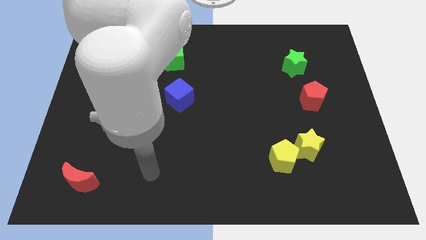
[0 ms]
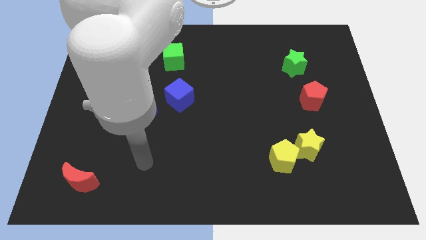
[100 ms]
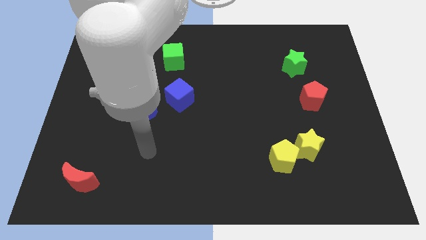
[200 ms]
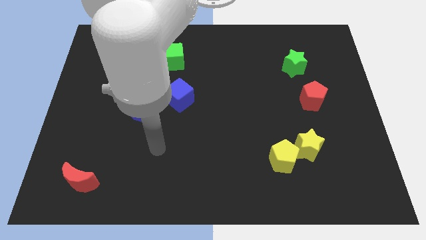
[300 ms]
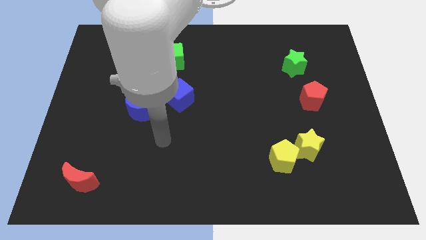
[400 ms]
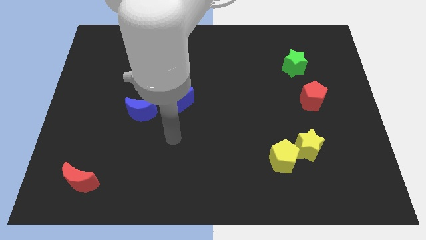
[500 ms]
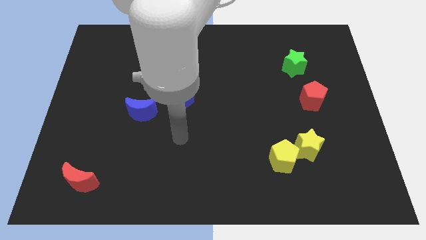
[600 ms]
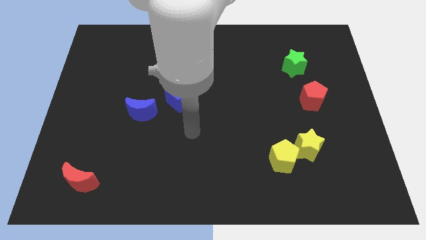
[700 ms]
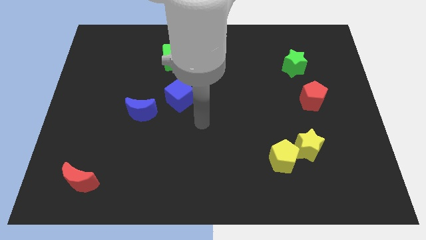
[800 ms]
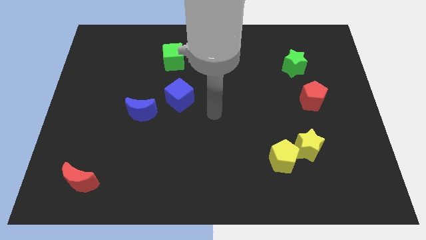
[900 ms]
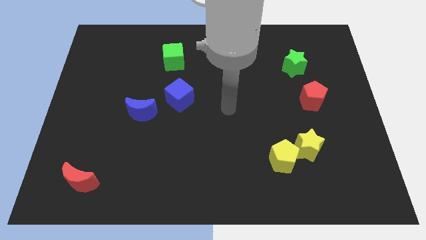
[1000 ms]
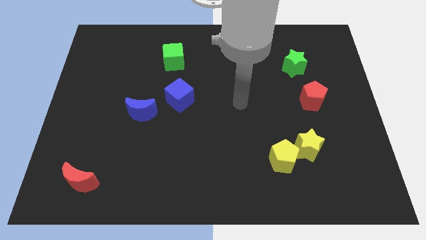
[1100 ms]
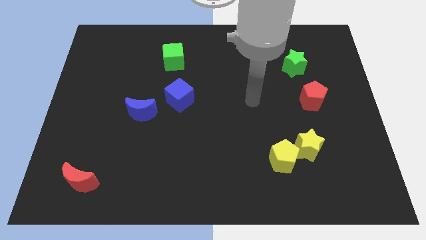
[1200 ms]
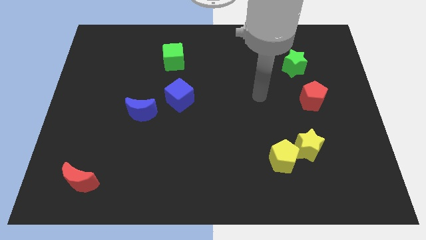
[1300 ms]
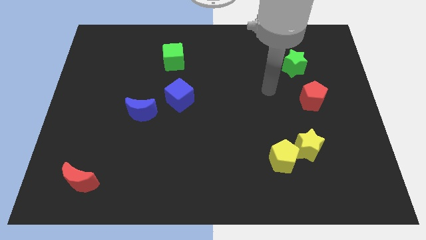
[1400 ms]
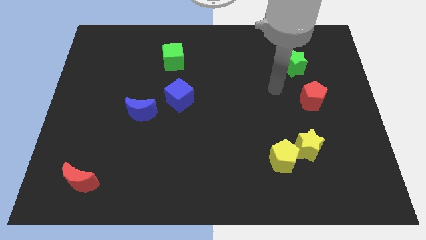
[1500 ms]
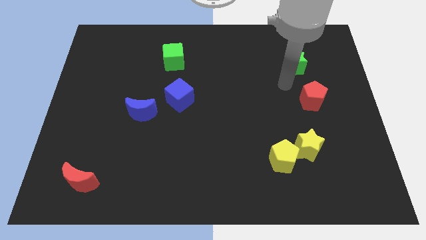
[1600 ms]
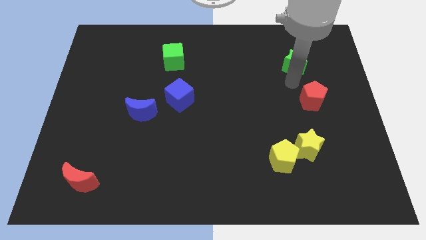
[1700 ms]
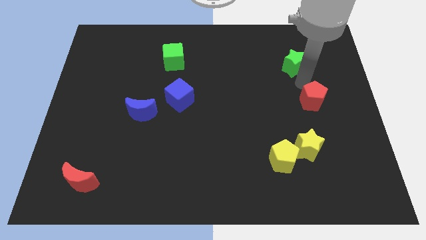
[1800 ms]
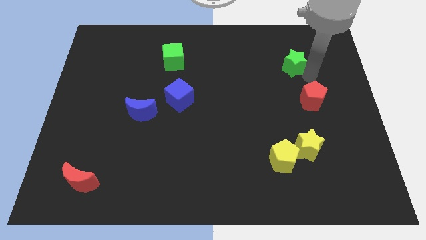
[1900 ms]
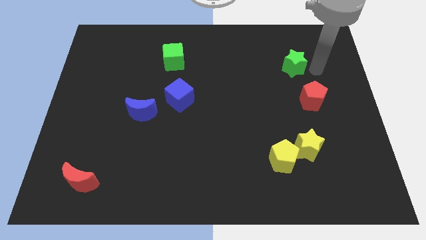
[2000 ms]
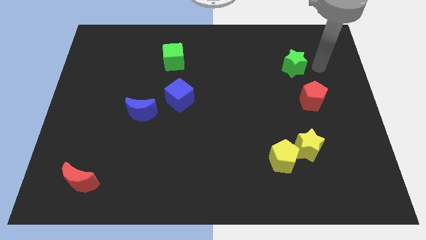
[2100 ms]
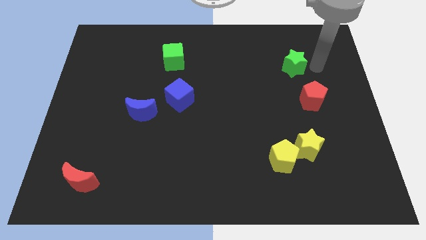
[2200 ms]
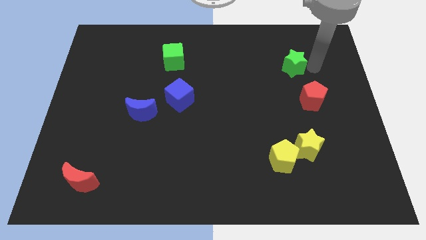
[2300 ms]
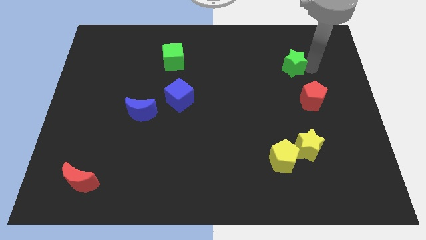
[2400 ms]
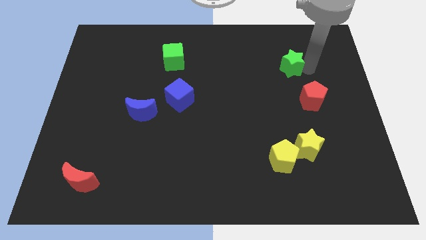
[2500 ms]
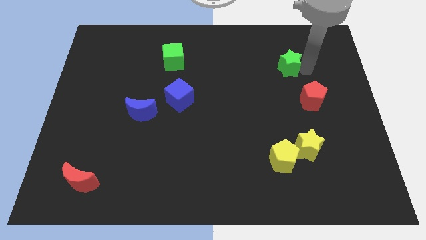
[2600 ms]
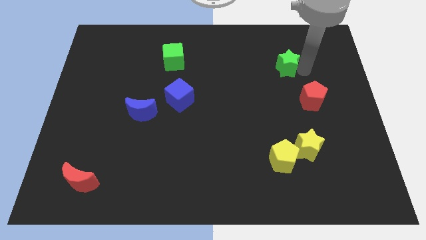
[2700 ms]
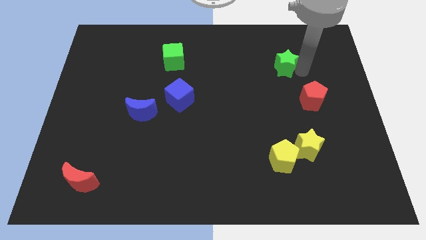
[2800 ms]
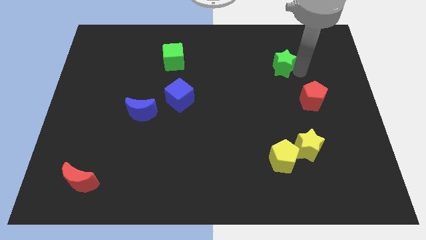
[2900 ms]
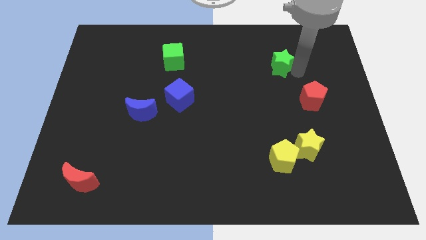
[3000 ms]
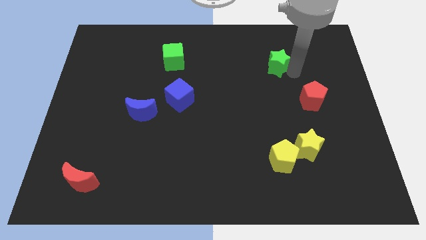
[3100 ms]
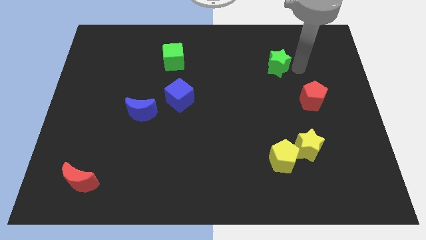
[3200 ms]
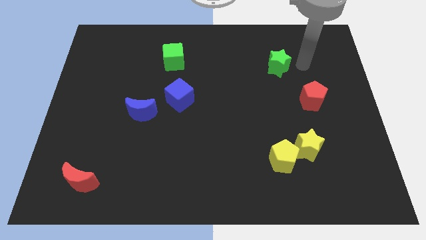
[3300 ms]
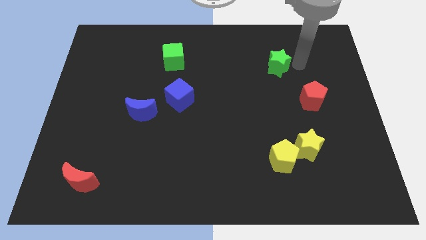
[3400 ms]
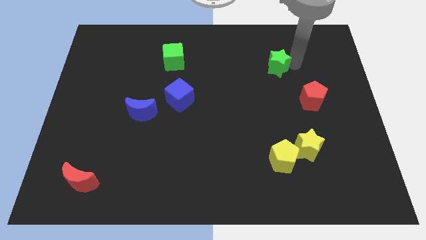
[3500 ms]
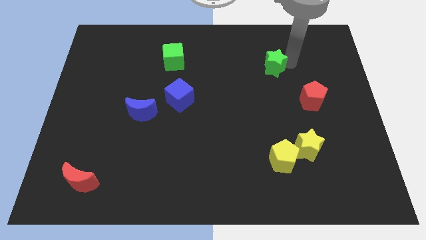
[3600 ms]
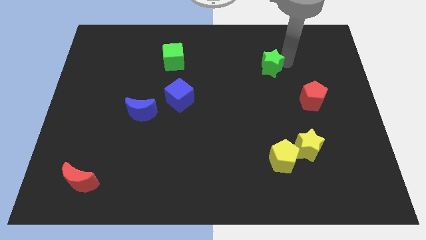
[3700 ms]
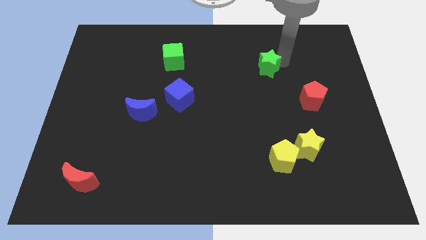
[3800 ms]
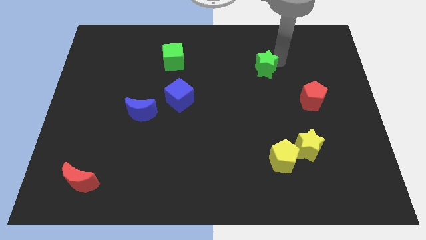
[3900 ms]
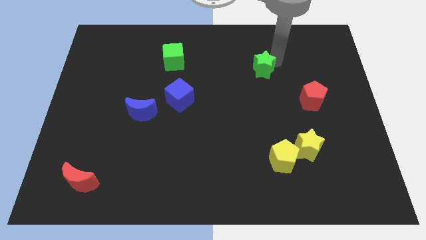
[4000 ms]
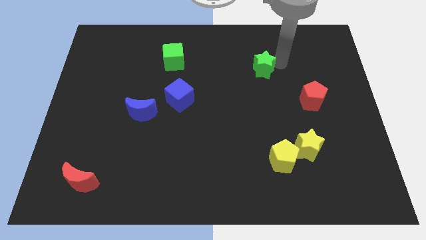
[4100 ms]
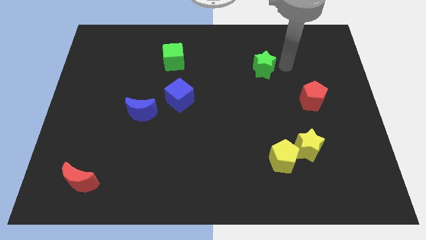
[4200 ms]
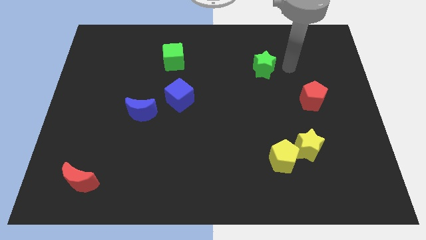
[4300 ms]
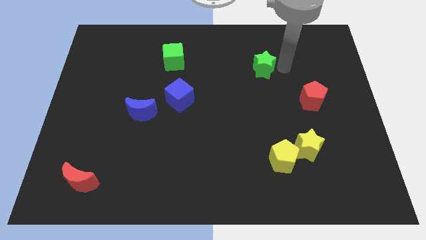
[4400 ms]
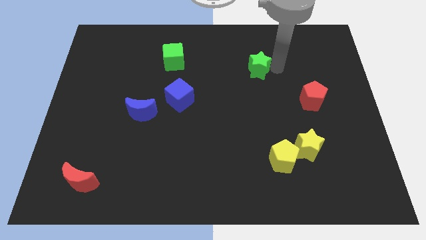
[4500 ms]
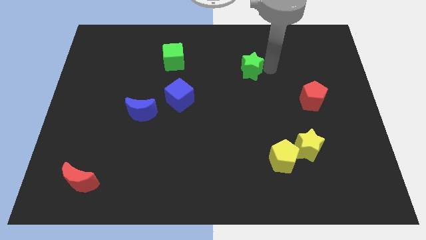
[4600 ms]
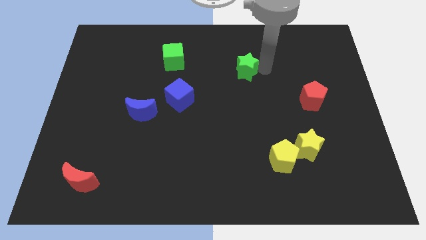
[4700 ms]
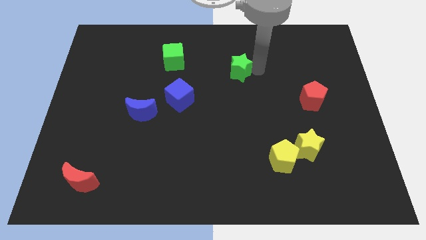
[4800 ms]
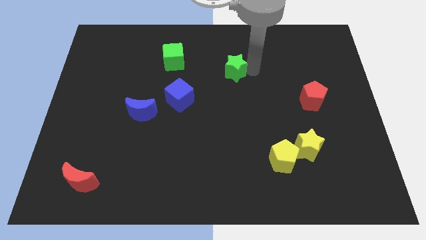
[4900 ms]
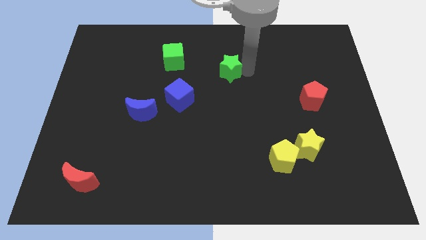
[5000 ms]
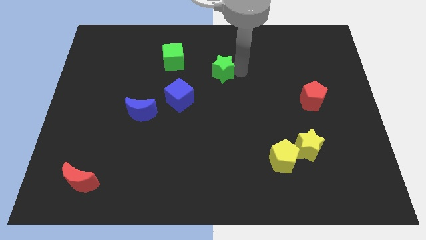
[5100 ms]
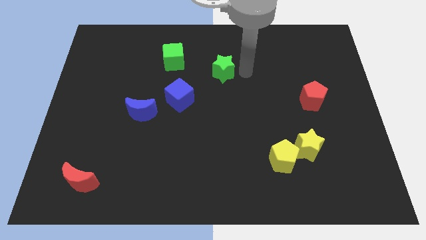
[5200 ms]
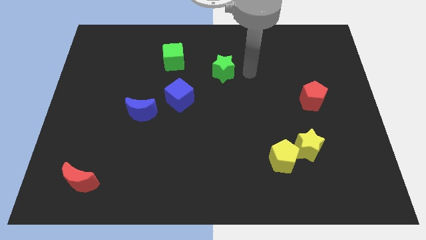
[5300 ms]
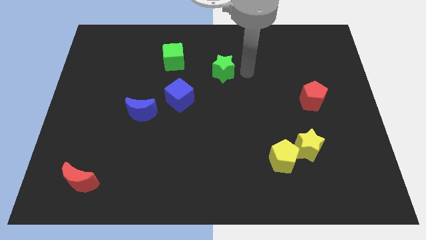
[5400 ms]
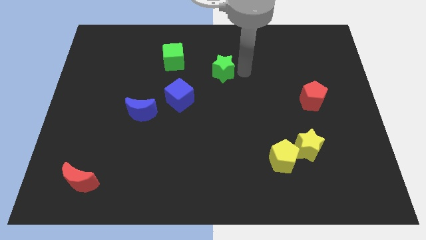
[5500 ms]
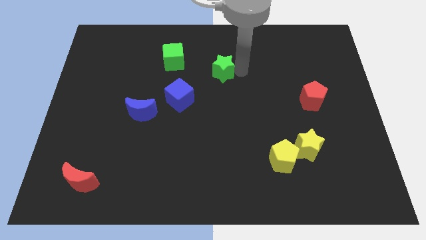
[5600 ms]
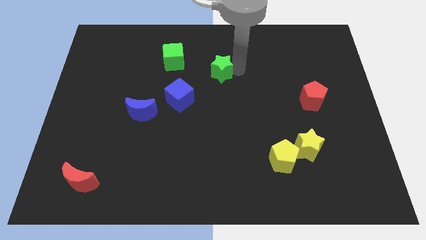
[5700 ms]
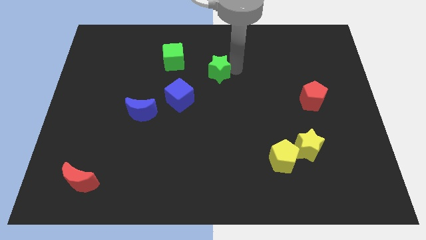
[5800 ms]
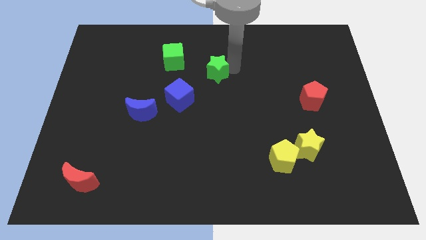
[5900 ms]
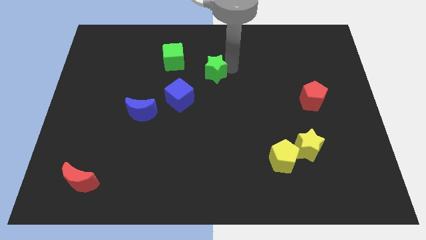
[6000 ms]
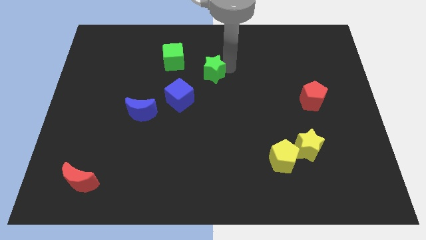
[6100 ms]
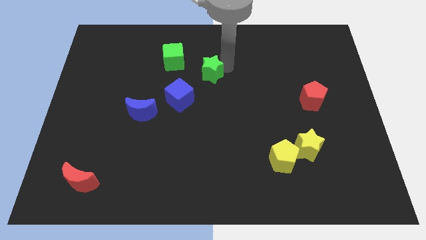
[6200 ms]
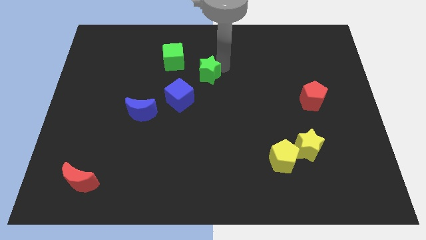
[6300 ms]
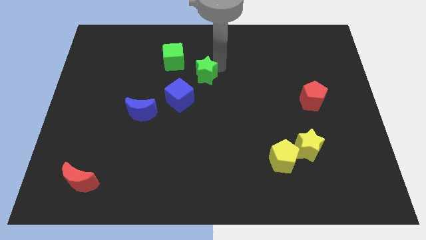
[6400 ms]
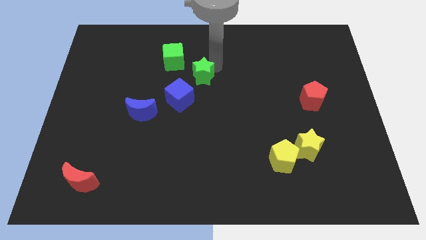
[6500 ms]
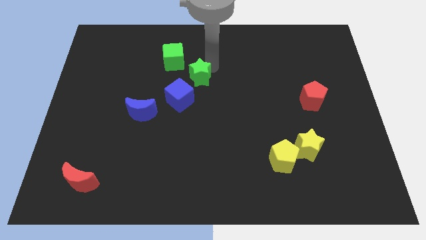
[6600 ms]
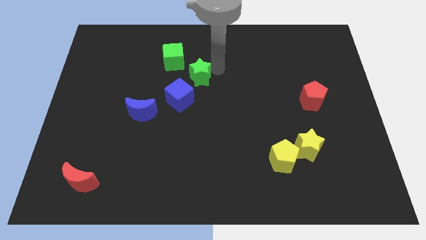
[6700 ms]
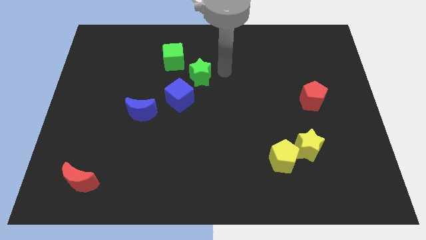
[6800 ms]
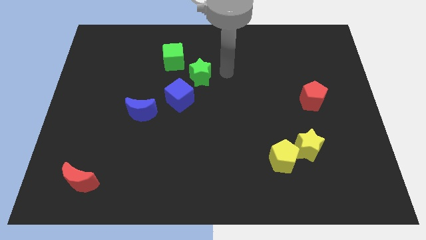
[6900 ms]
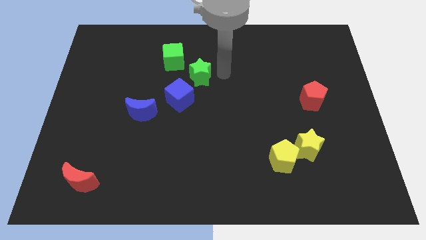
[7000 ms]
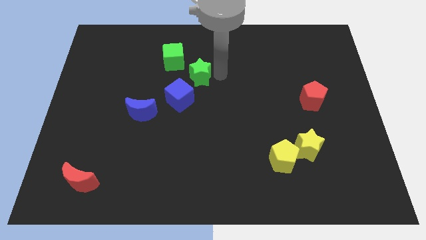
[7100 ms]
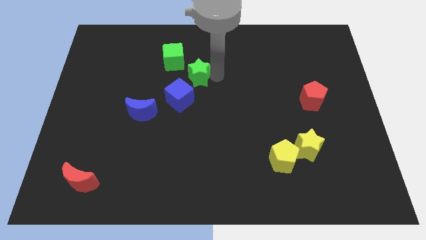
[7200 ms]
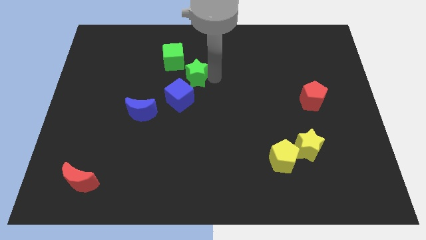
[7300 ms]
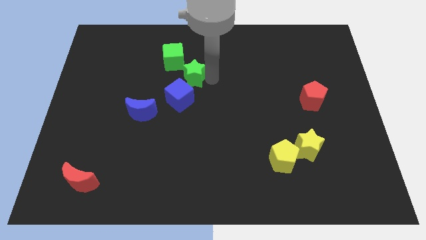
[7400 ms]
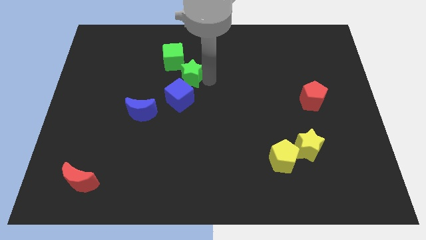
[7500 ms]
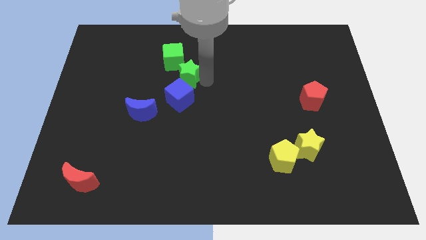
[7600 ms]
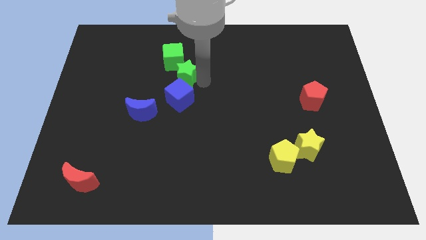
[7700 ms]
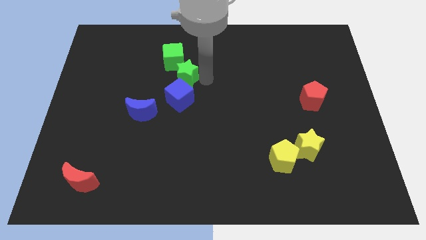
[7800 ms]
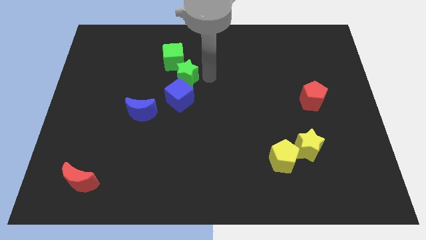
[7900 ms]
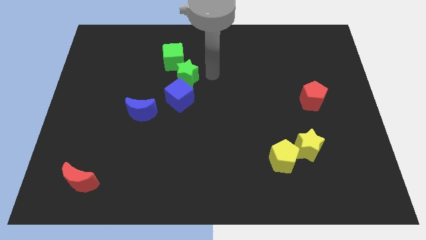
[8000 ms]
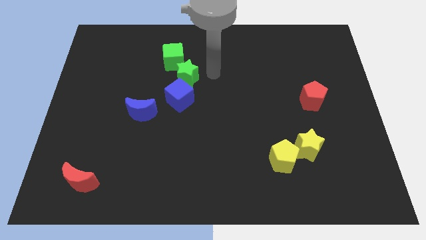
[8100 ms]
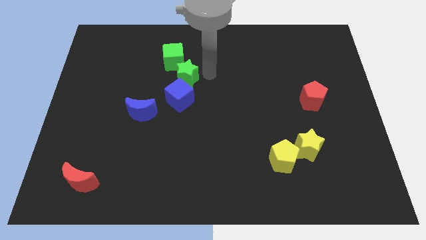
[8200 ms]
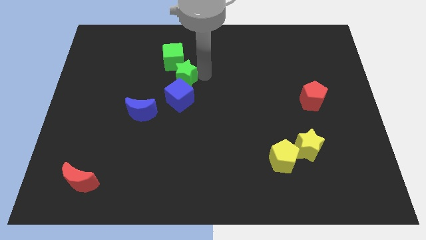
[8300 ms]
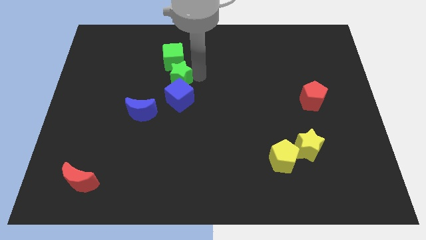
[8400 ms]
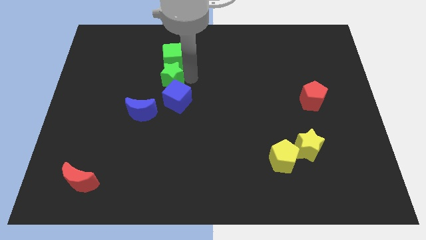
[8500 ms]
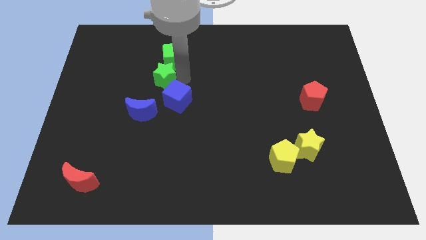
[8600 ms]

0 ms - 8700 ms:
put the green star to the top side of the blue moon
